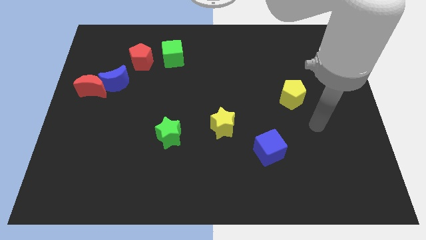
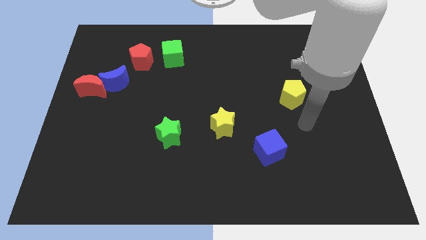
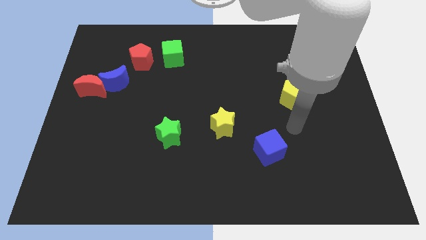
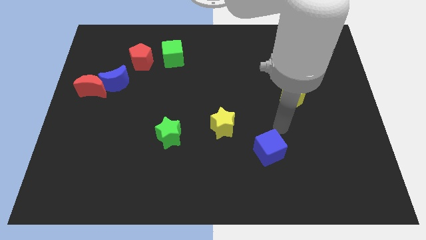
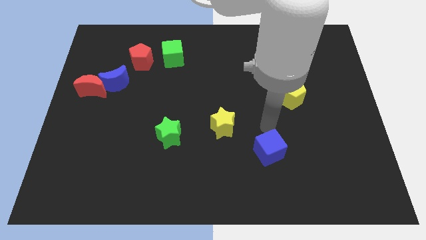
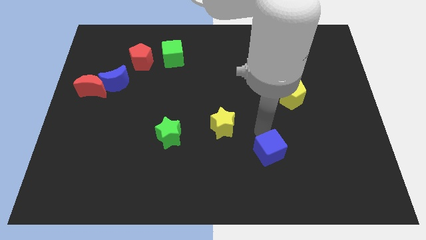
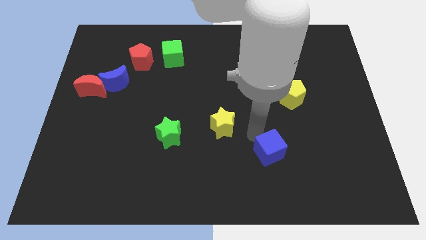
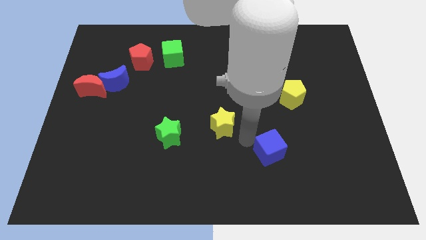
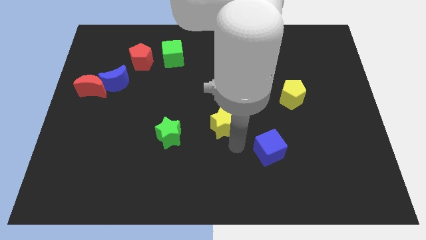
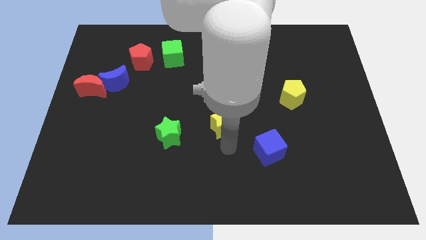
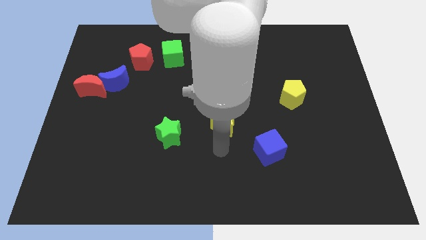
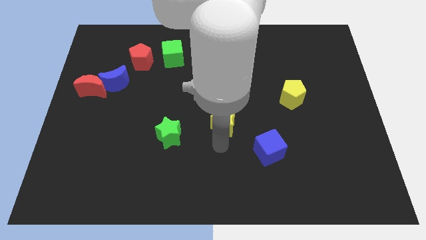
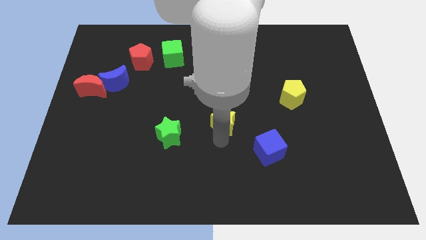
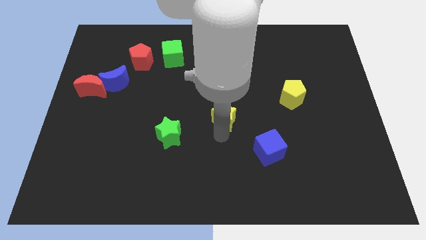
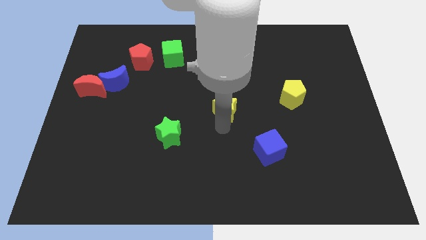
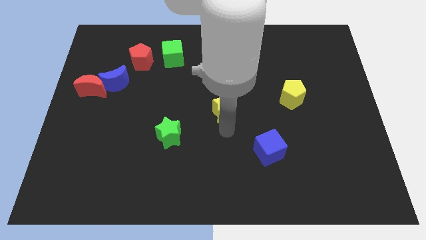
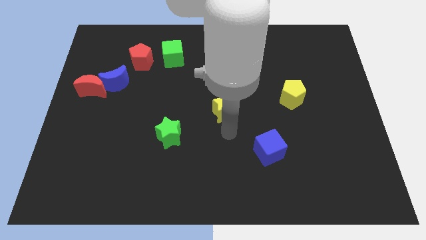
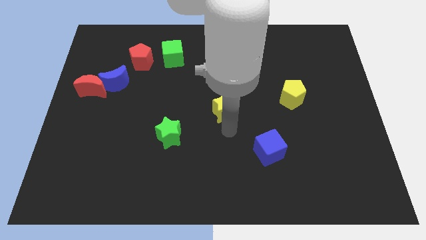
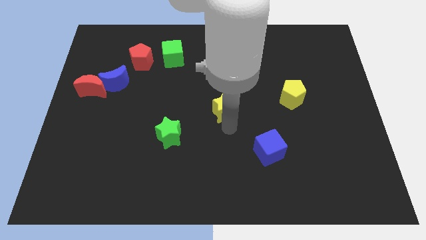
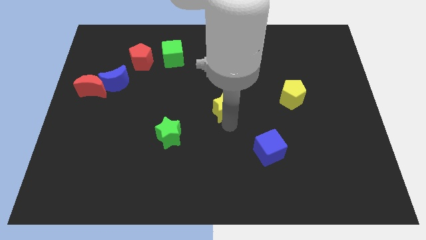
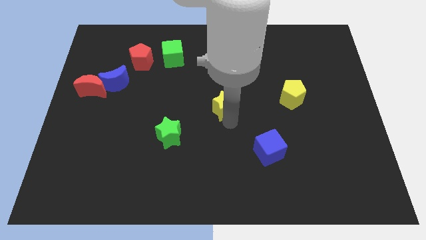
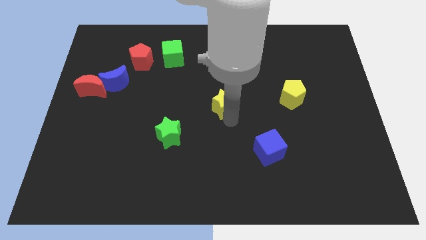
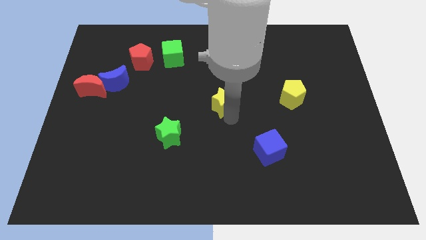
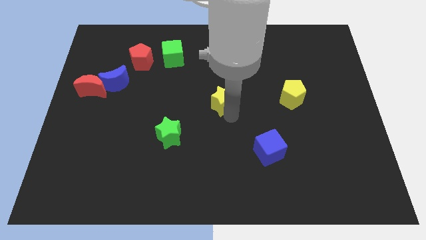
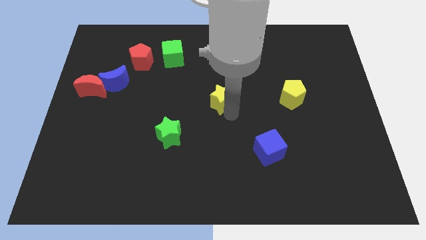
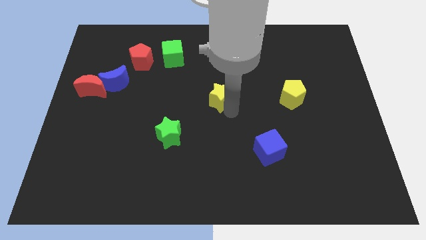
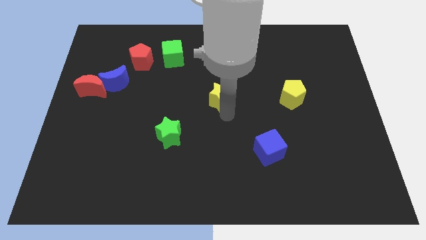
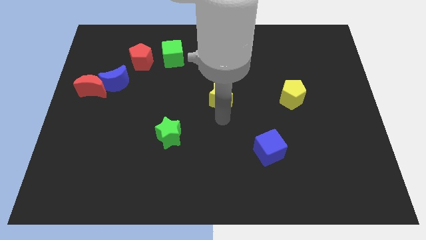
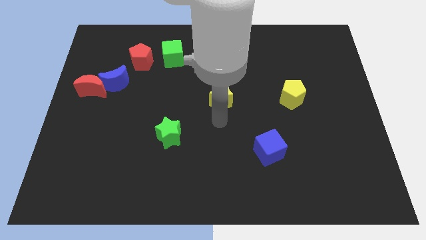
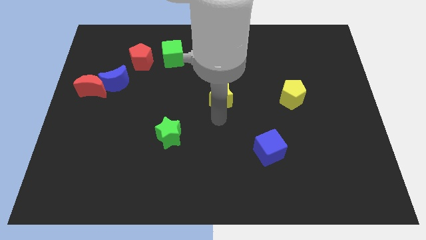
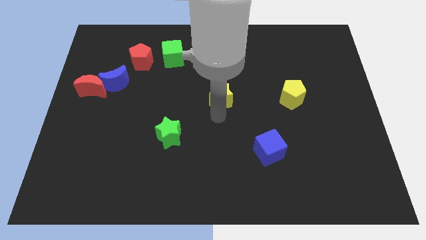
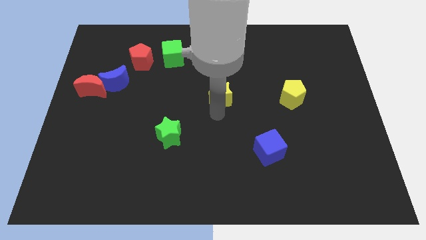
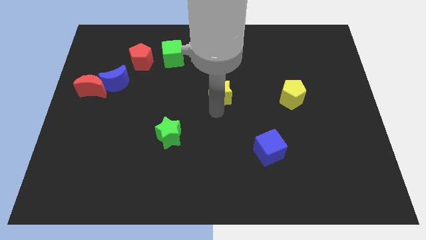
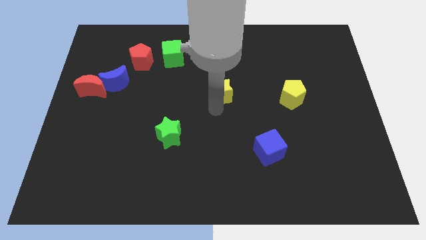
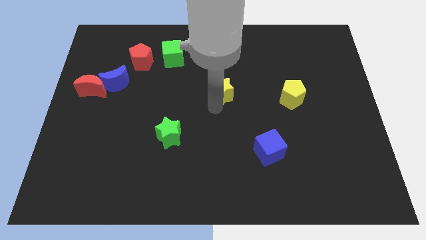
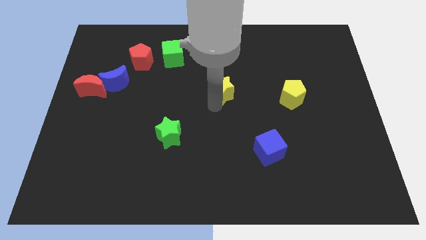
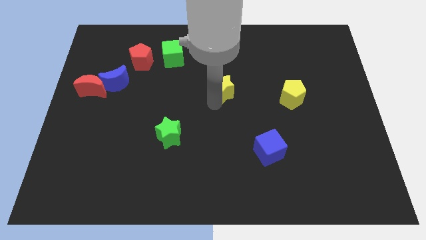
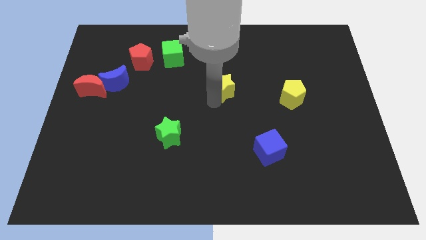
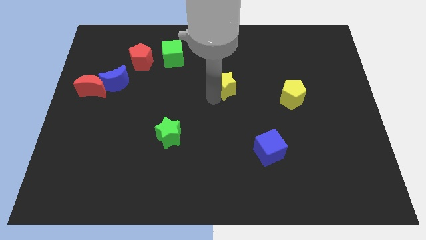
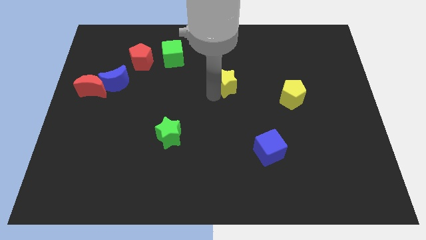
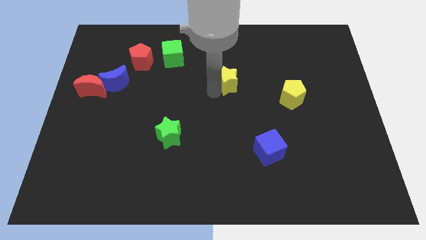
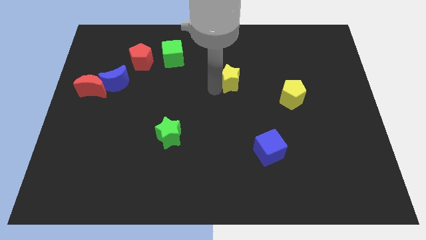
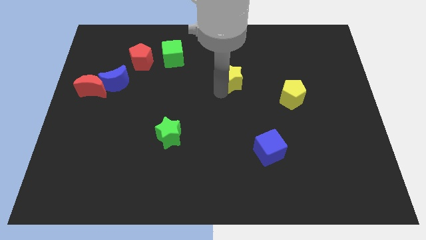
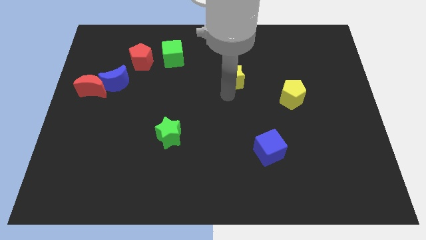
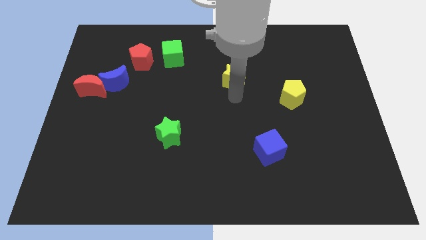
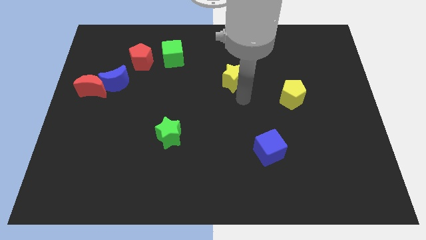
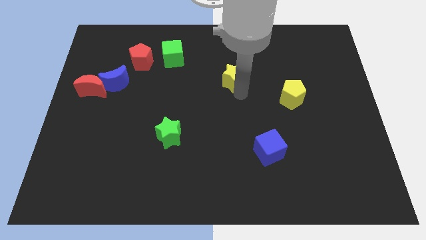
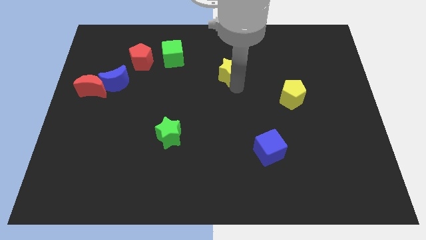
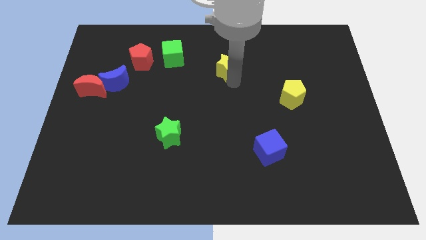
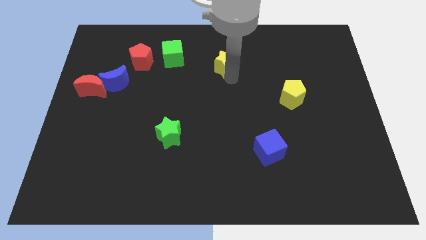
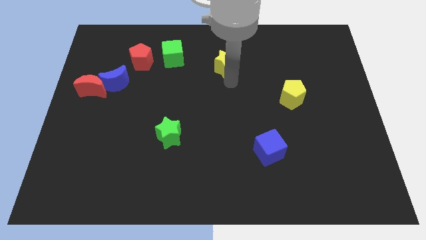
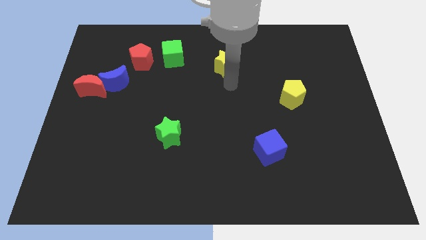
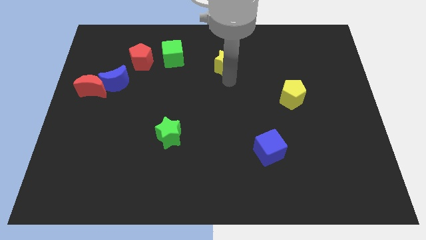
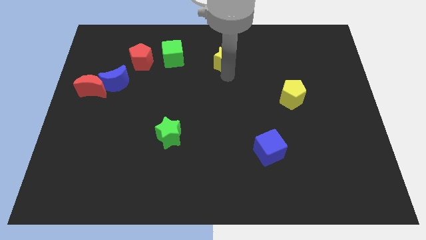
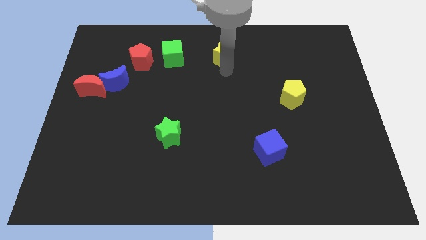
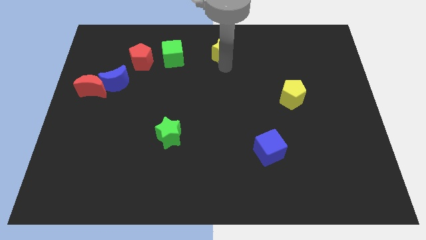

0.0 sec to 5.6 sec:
push the yellow star to the top side
